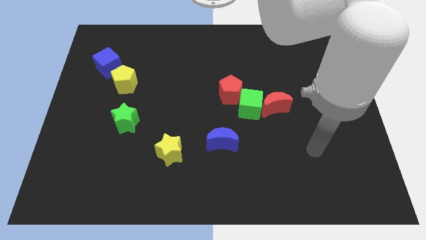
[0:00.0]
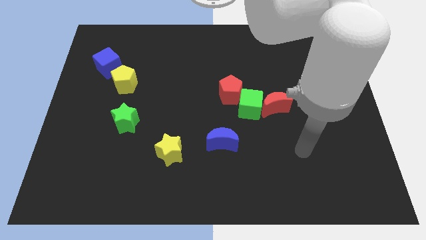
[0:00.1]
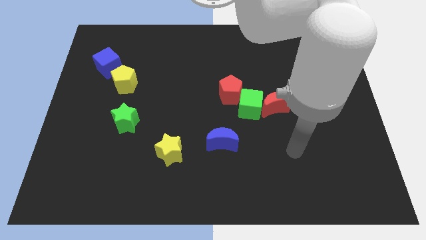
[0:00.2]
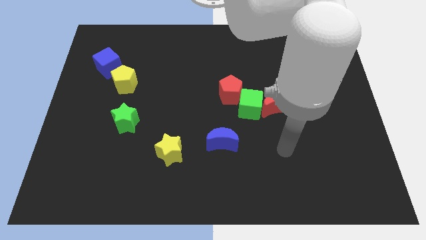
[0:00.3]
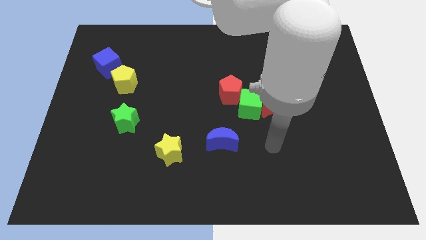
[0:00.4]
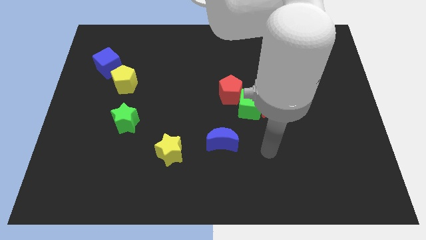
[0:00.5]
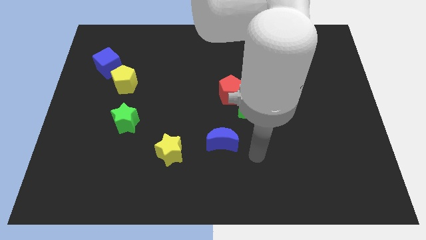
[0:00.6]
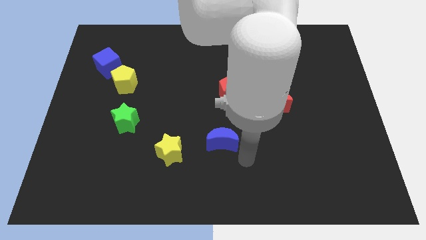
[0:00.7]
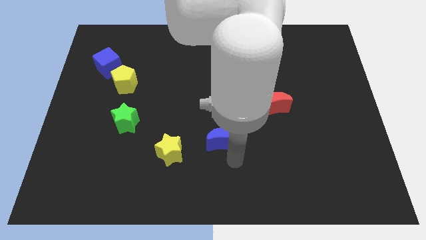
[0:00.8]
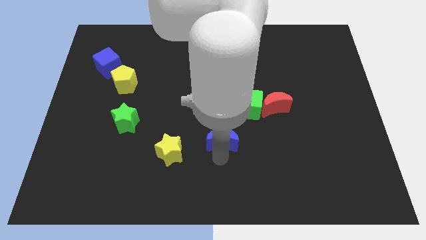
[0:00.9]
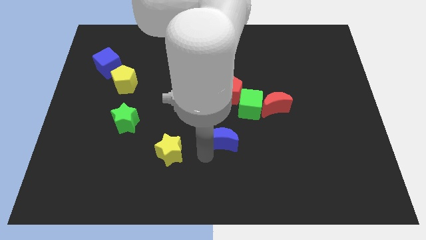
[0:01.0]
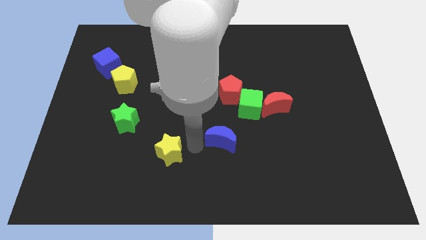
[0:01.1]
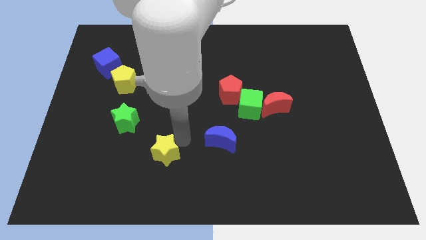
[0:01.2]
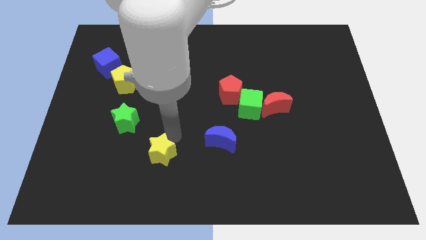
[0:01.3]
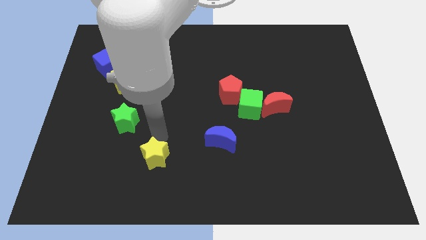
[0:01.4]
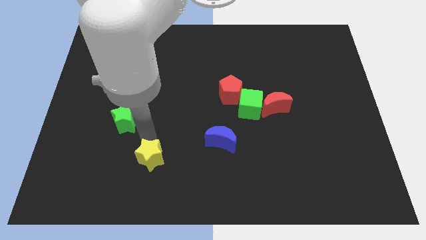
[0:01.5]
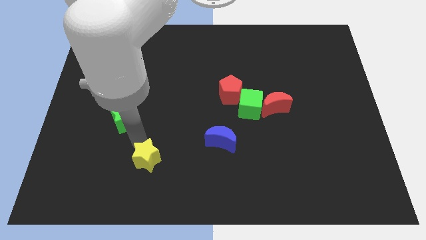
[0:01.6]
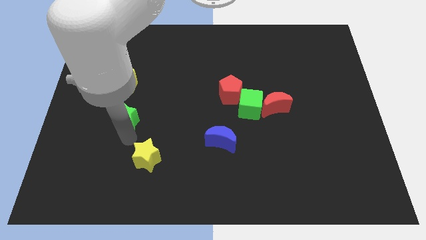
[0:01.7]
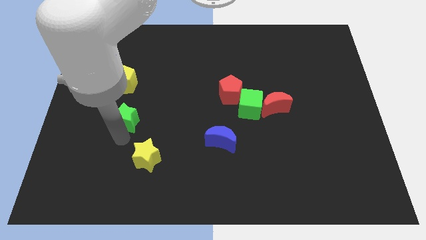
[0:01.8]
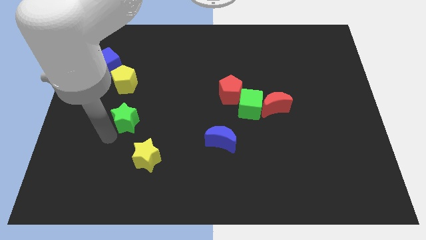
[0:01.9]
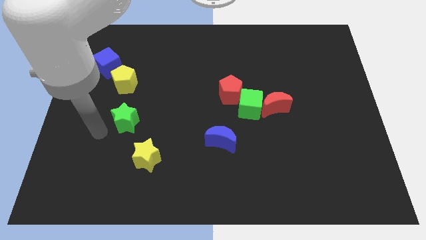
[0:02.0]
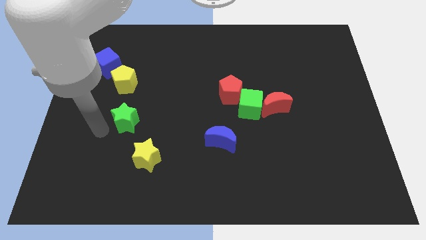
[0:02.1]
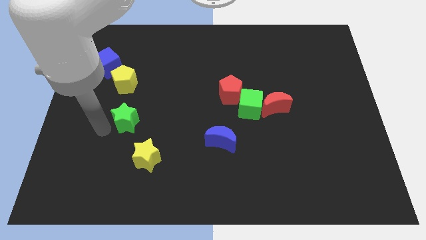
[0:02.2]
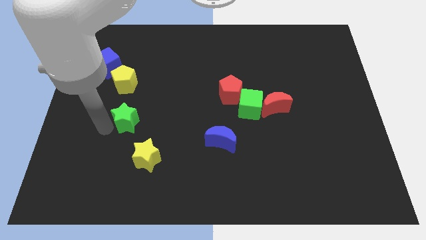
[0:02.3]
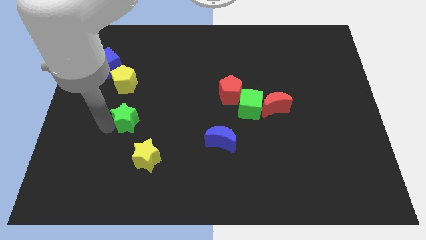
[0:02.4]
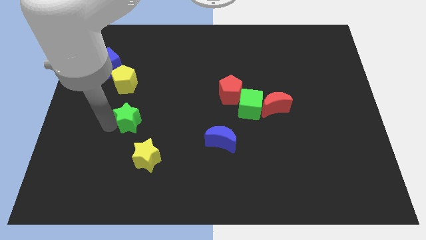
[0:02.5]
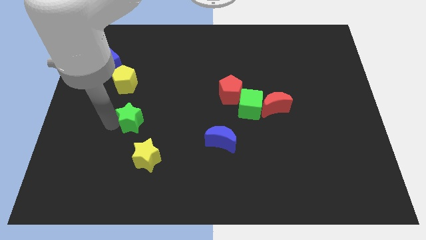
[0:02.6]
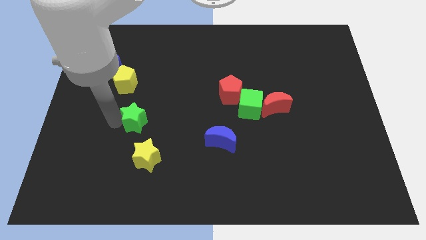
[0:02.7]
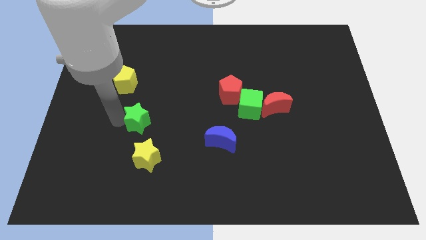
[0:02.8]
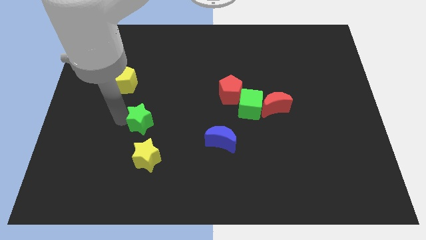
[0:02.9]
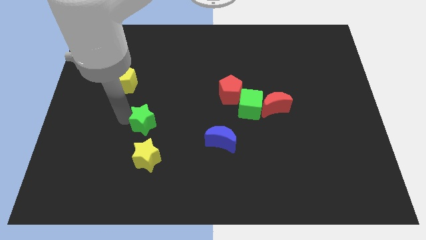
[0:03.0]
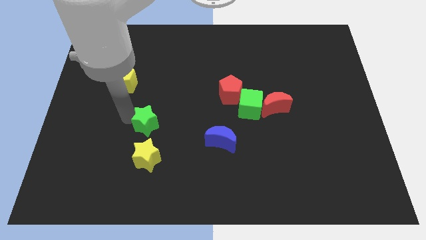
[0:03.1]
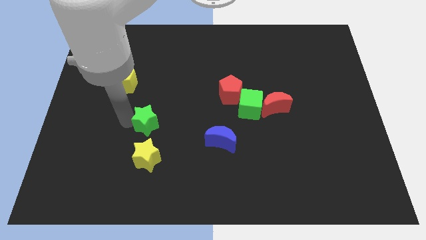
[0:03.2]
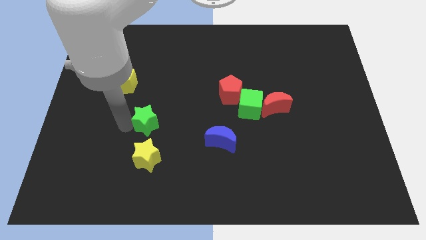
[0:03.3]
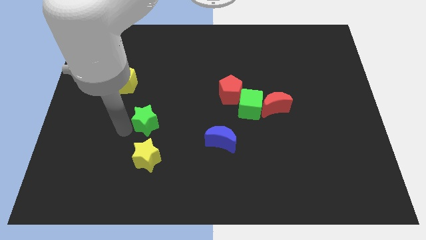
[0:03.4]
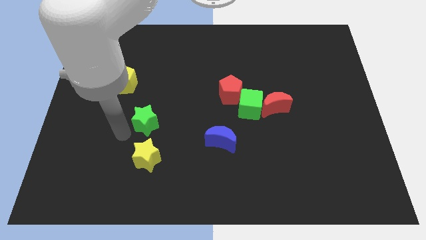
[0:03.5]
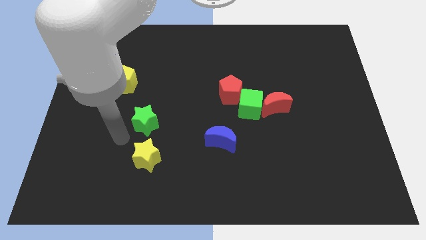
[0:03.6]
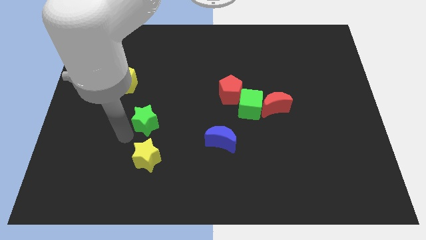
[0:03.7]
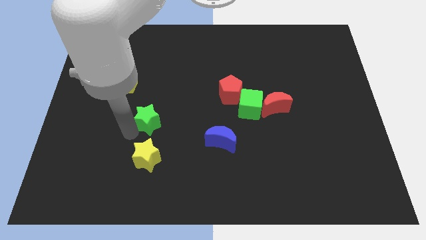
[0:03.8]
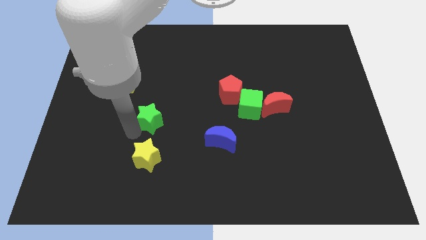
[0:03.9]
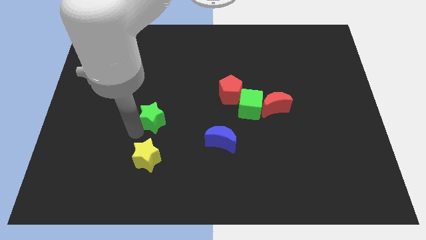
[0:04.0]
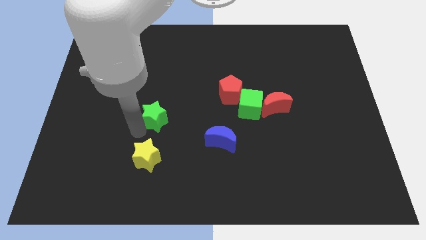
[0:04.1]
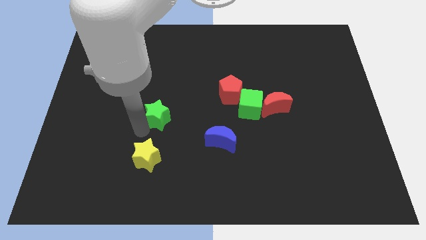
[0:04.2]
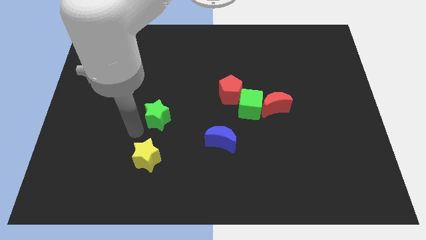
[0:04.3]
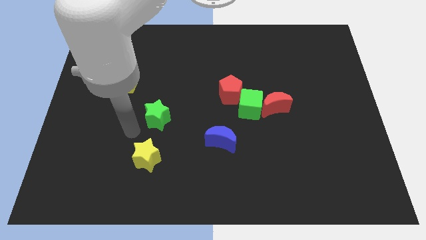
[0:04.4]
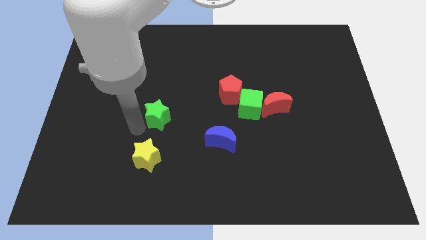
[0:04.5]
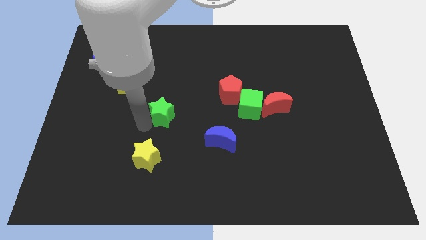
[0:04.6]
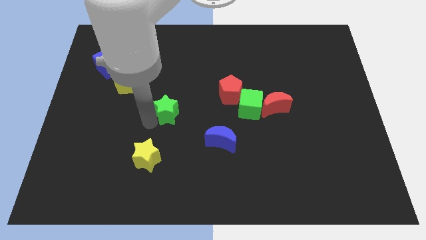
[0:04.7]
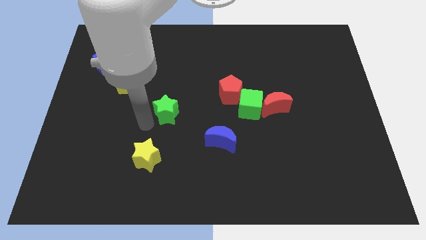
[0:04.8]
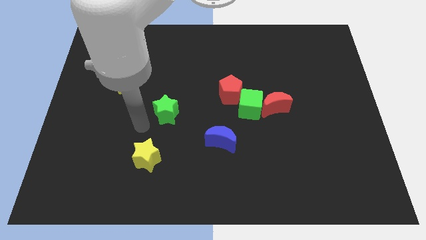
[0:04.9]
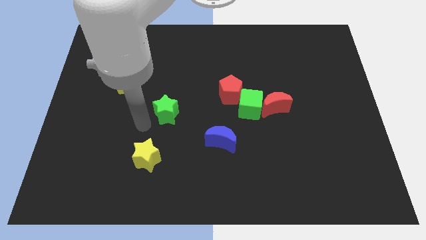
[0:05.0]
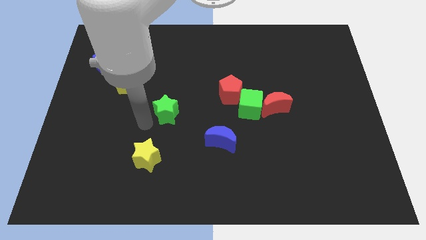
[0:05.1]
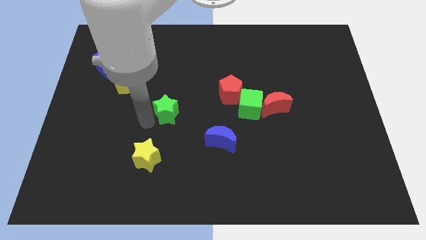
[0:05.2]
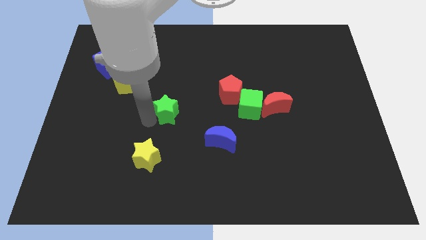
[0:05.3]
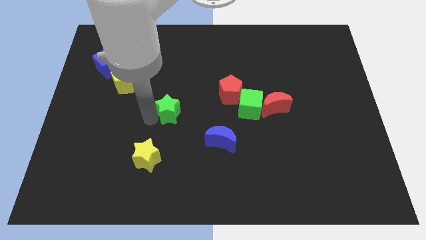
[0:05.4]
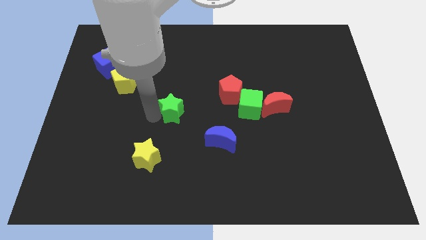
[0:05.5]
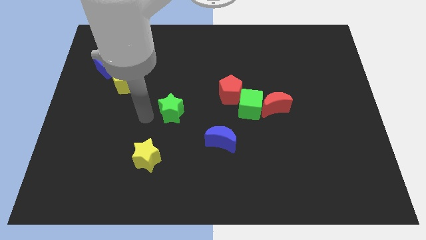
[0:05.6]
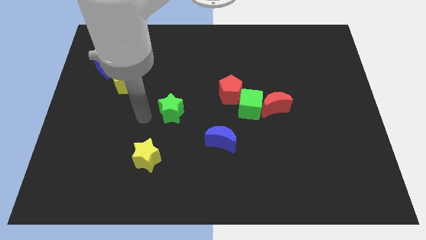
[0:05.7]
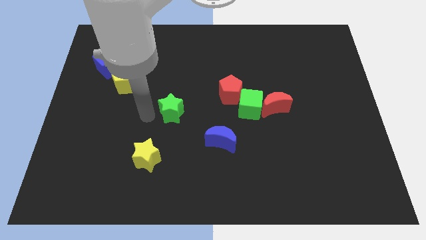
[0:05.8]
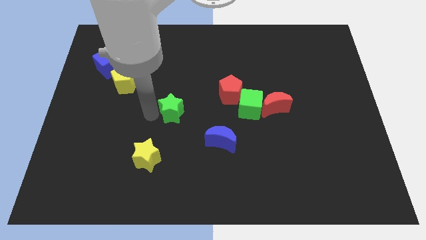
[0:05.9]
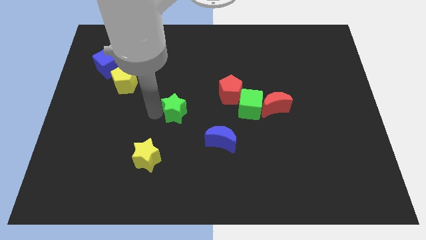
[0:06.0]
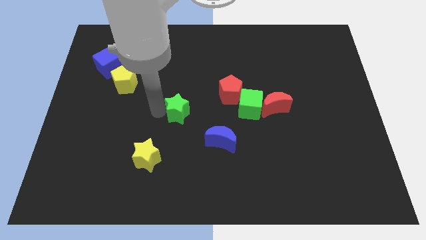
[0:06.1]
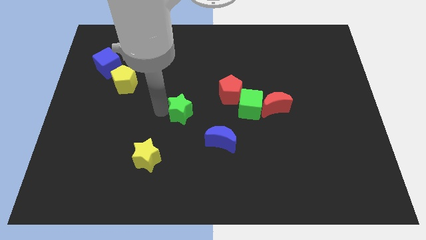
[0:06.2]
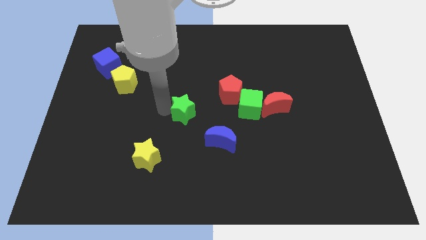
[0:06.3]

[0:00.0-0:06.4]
slide the green star to the left side of the green cube
